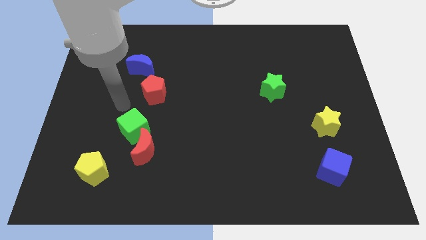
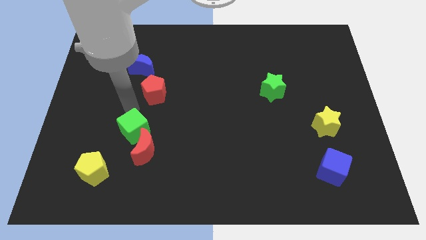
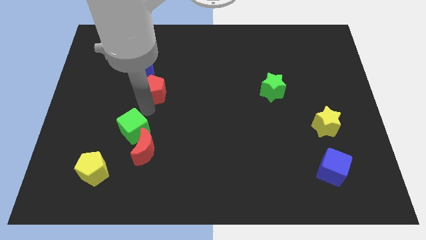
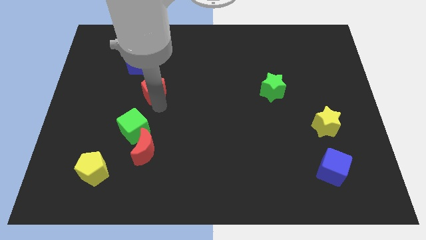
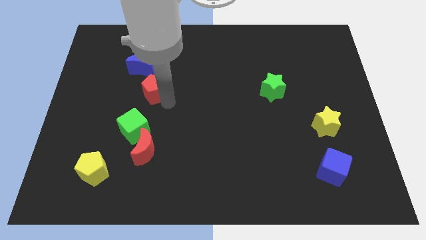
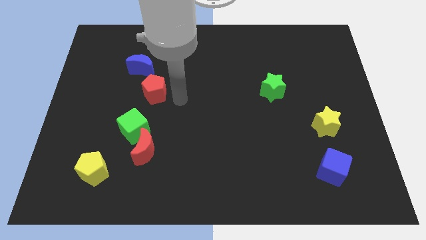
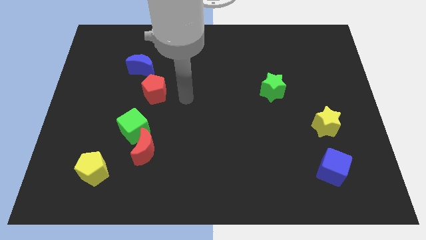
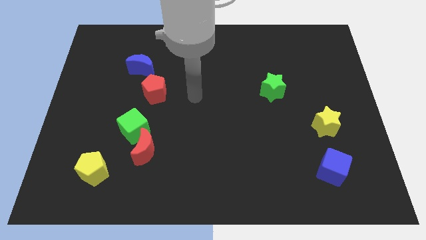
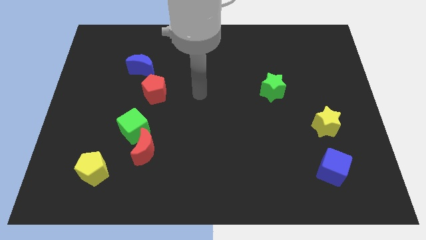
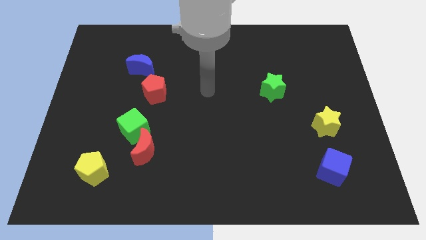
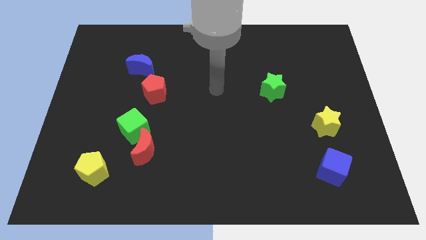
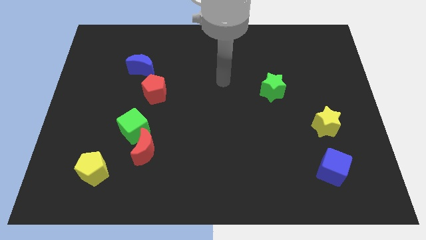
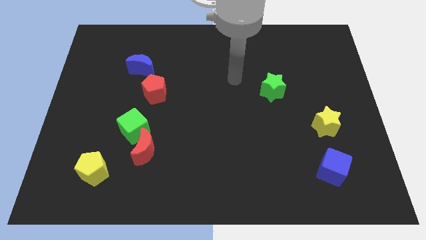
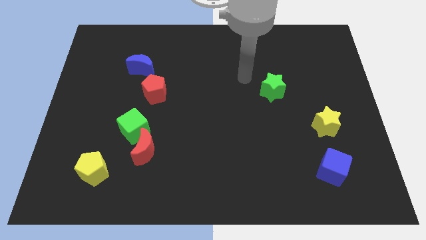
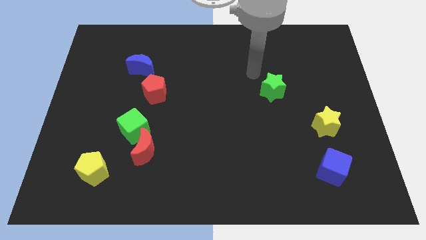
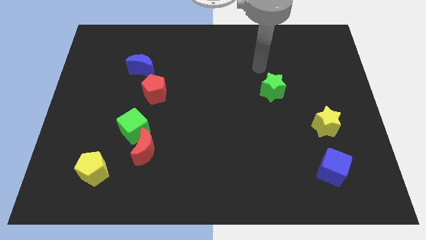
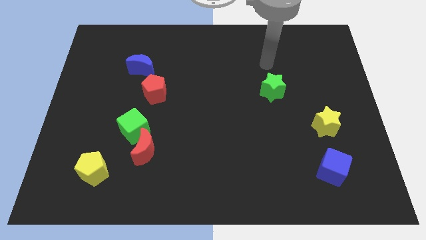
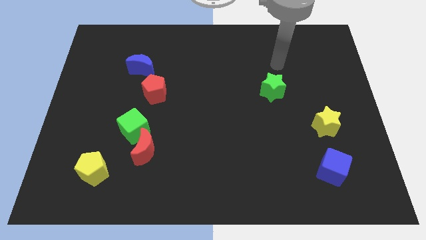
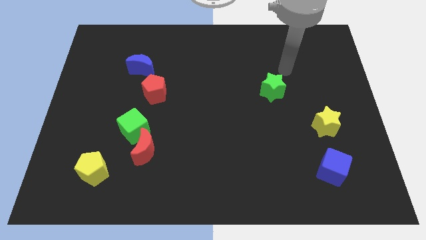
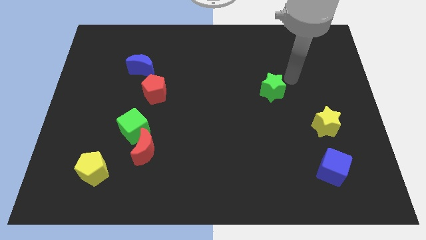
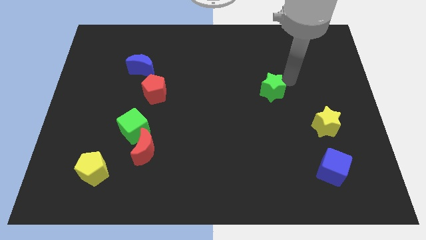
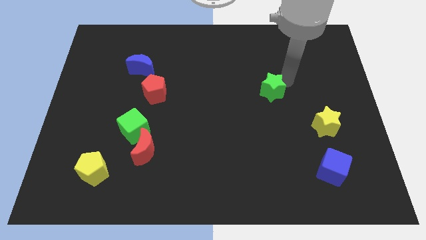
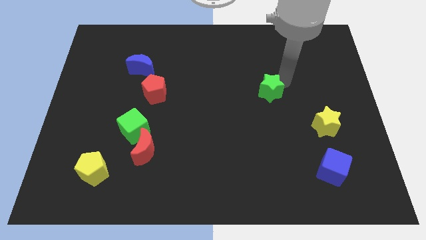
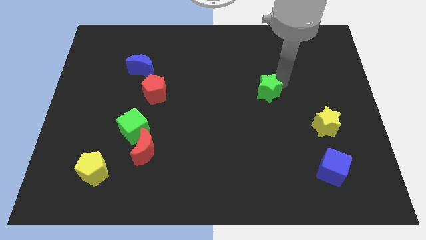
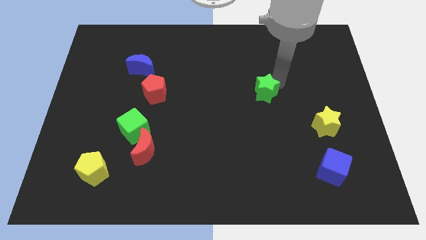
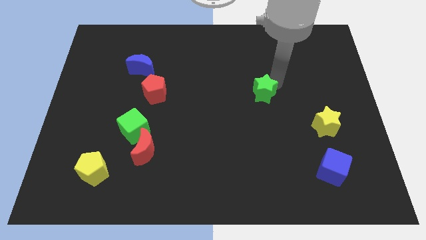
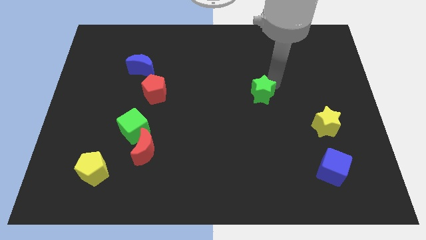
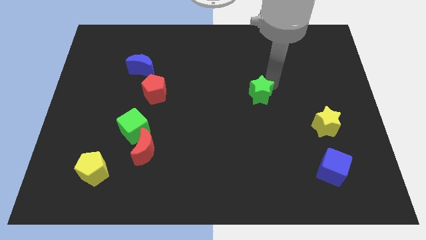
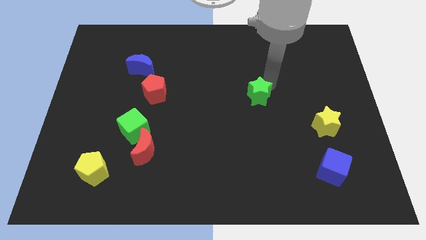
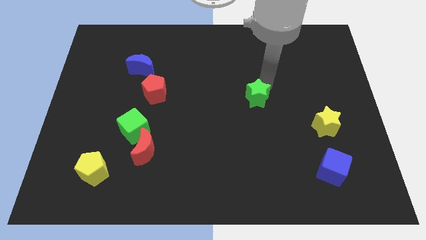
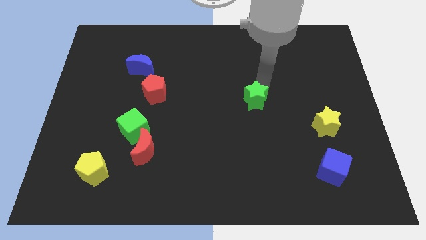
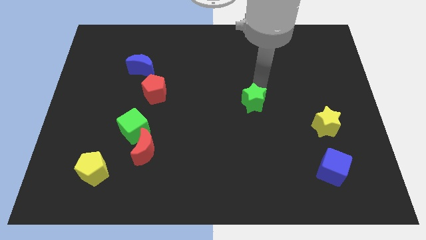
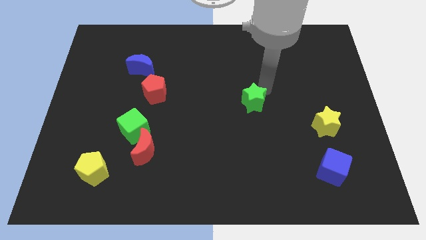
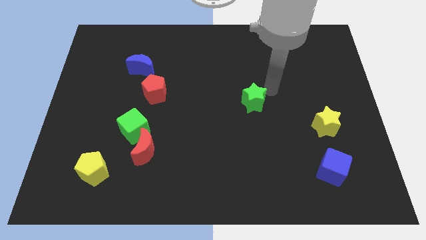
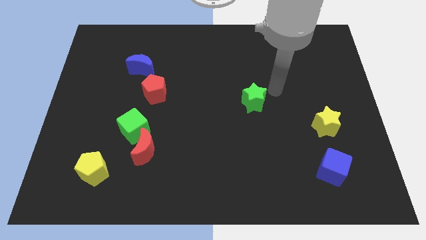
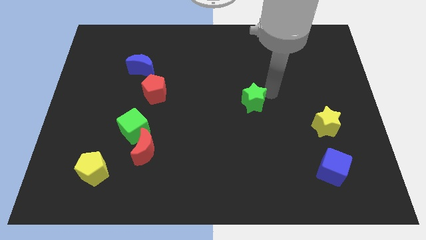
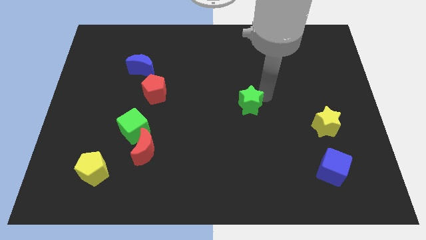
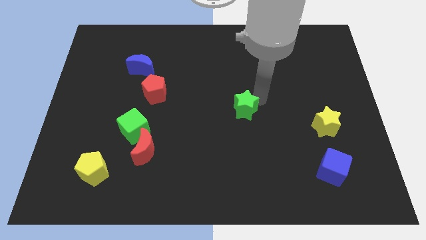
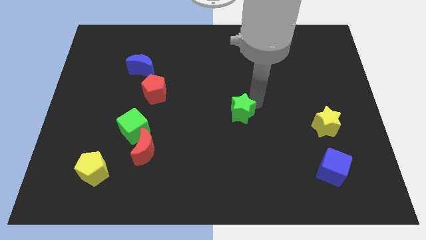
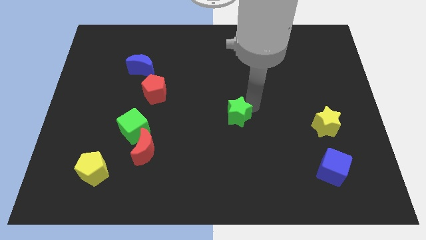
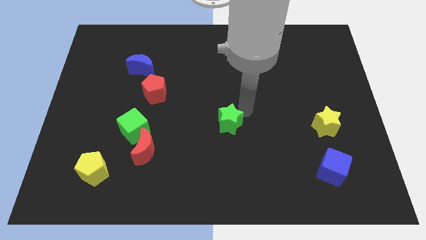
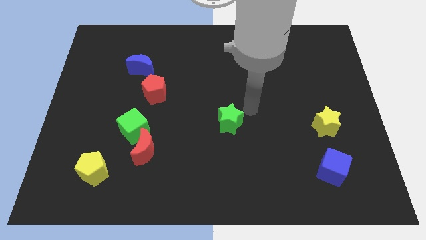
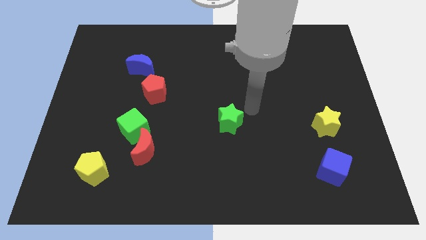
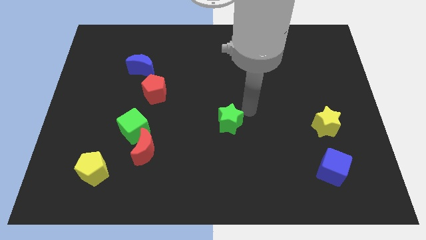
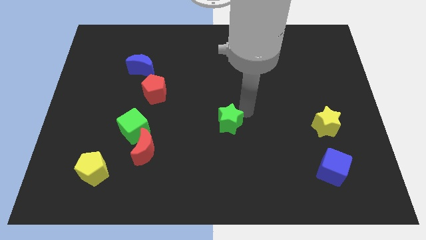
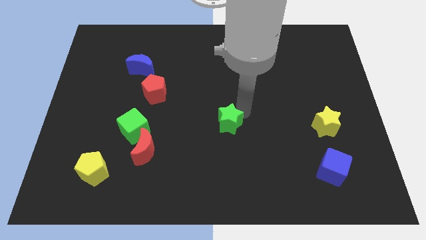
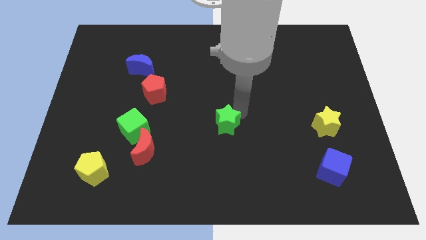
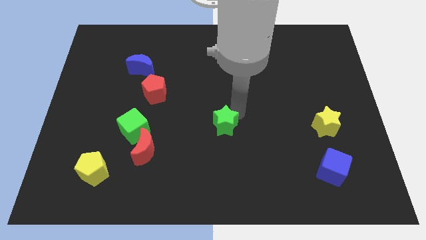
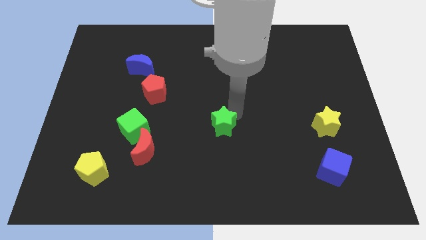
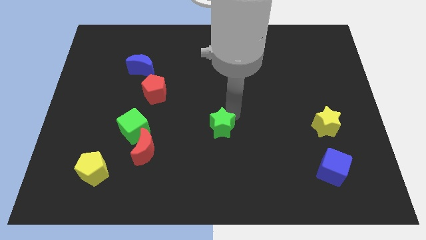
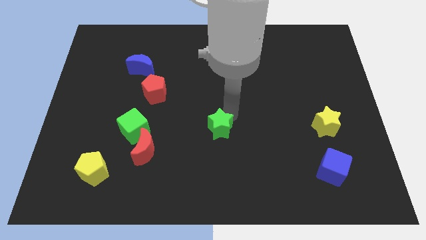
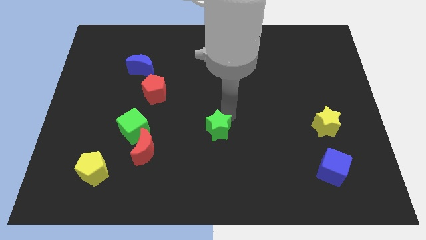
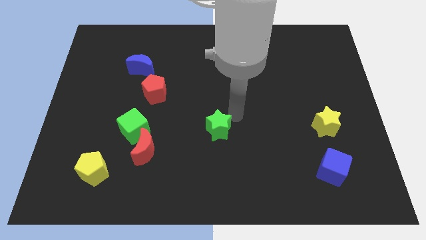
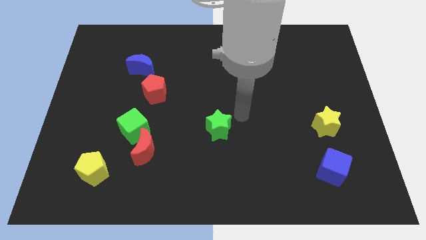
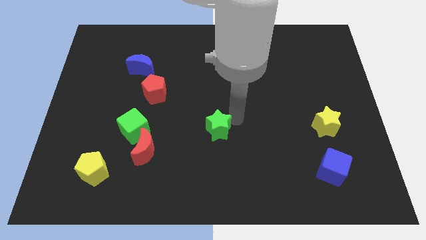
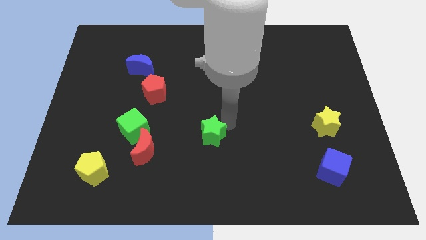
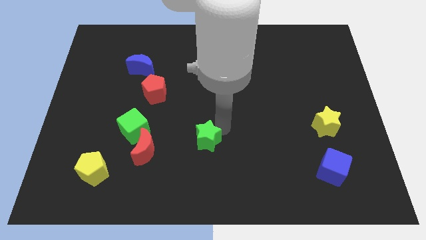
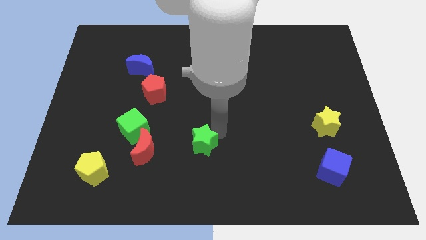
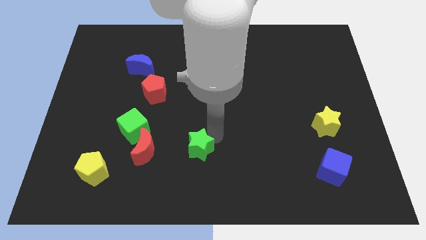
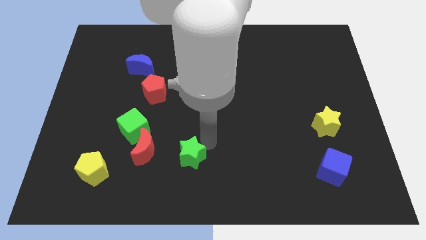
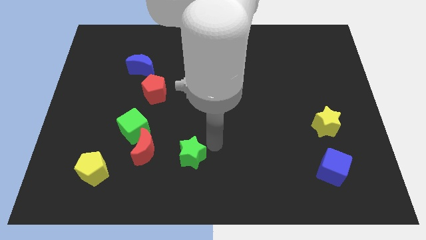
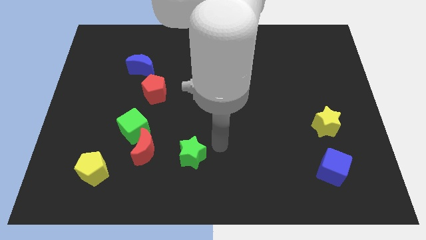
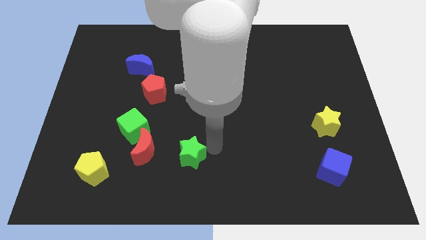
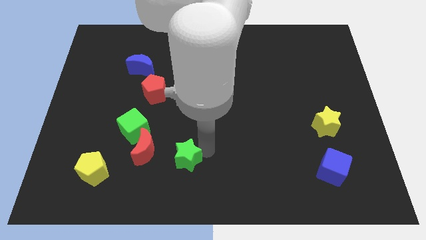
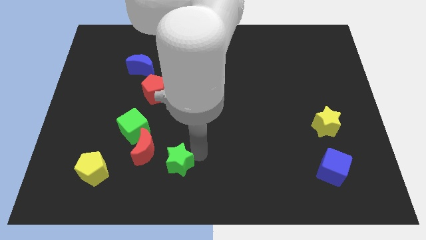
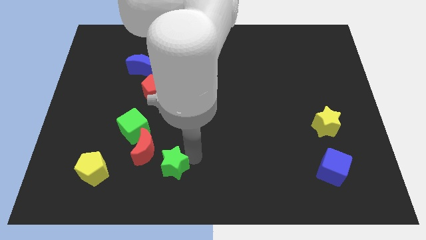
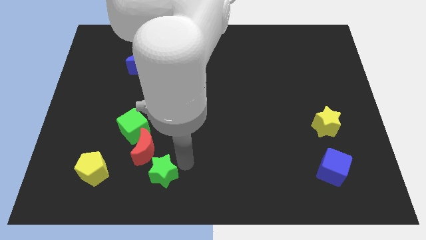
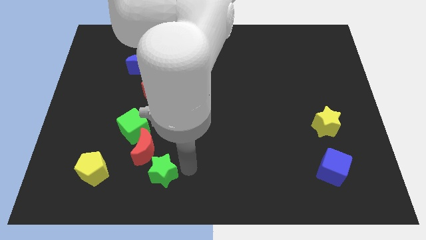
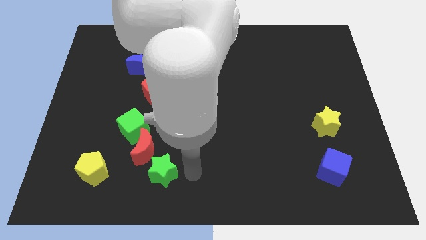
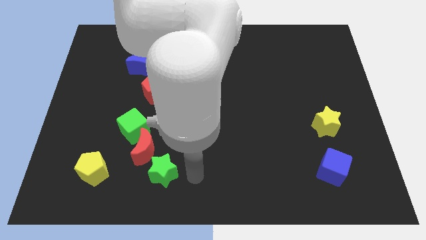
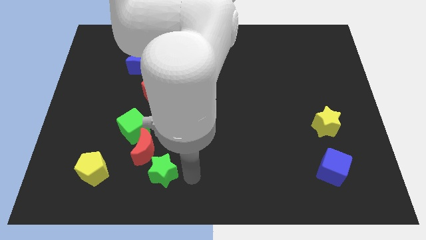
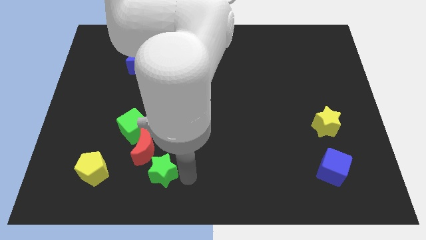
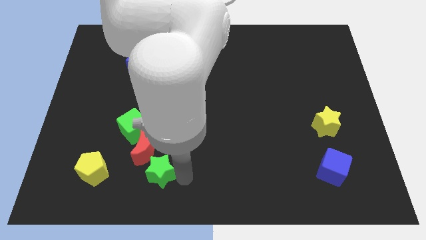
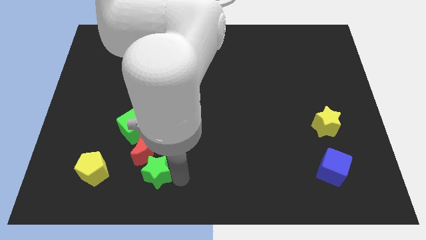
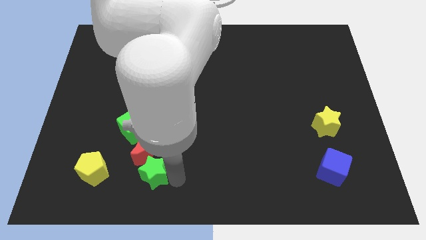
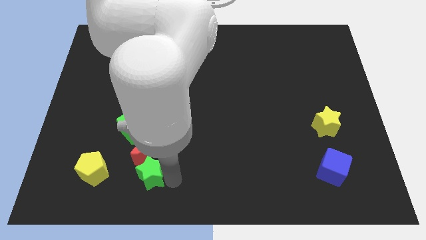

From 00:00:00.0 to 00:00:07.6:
push the green star to the bottom side of the green cube
